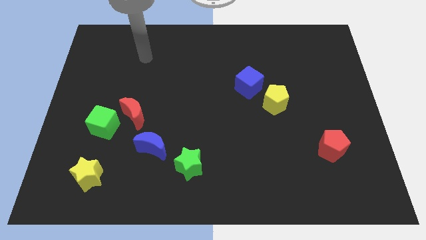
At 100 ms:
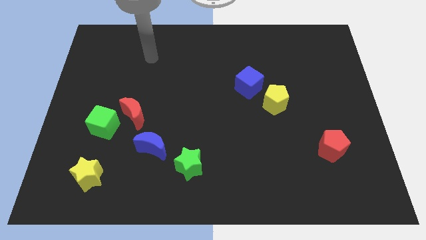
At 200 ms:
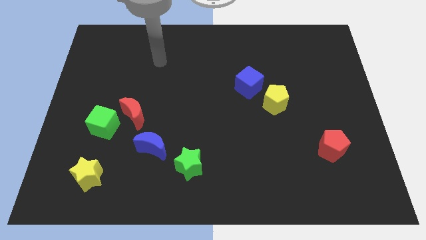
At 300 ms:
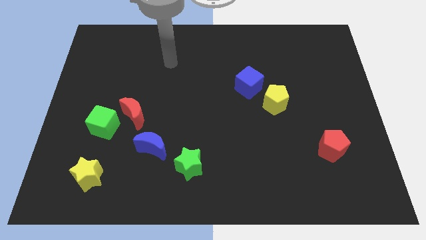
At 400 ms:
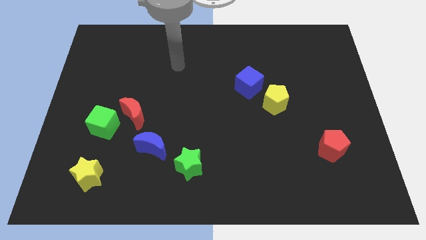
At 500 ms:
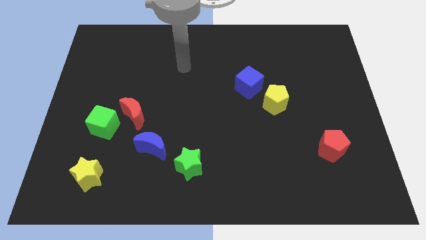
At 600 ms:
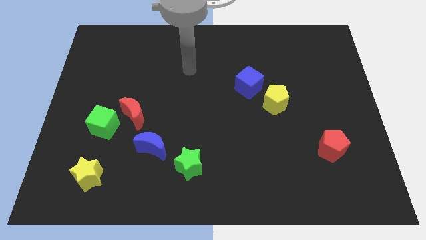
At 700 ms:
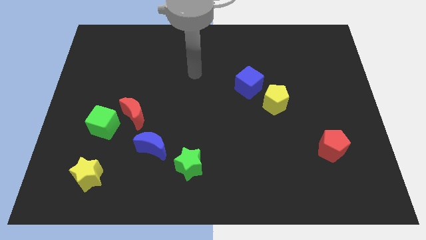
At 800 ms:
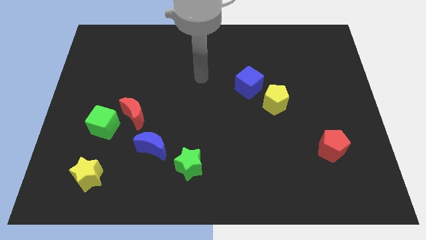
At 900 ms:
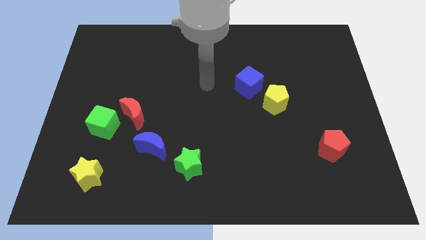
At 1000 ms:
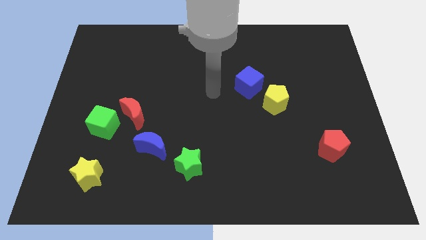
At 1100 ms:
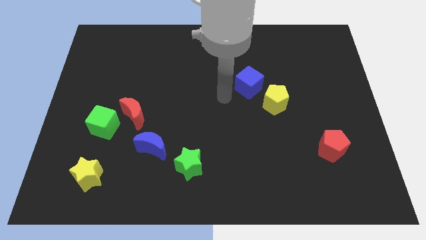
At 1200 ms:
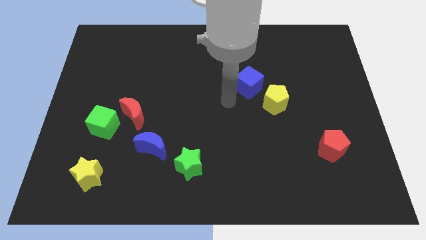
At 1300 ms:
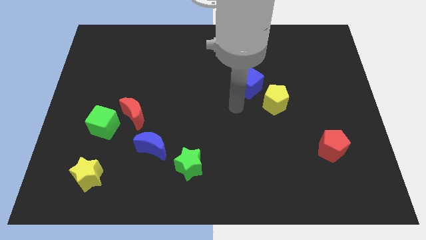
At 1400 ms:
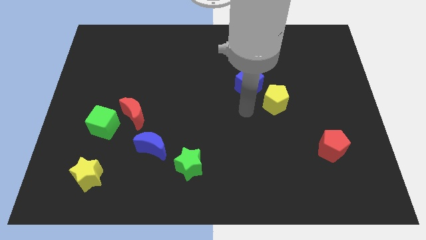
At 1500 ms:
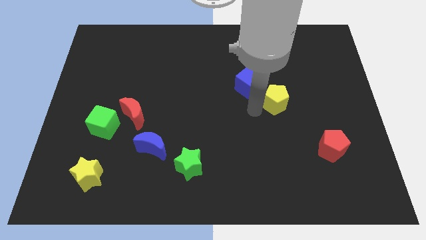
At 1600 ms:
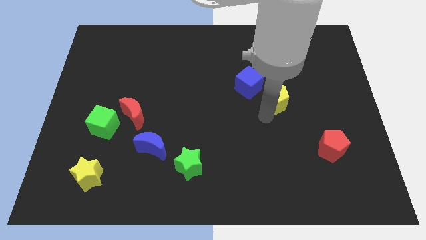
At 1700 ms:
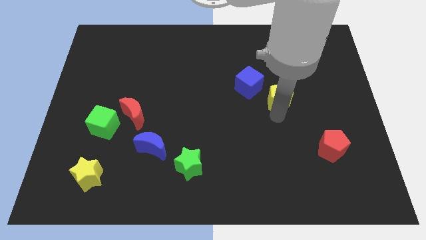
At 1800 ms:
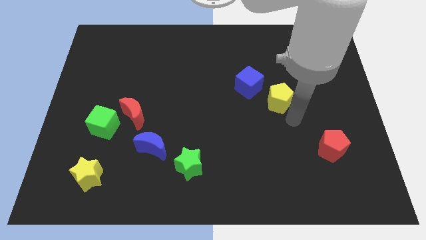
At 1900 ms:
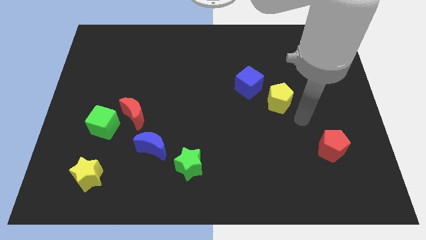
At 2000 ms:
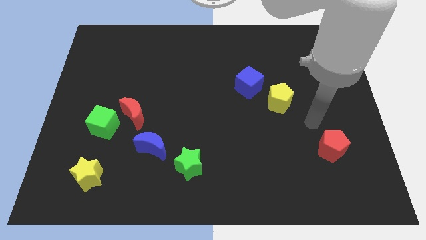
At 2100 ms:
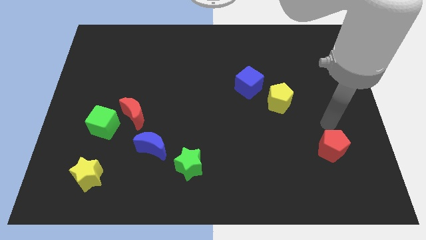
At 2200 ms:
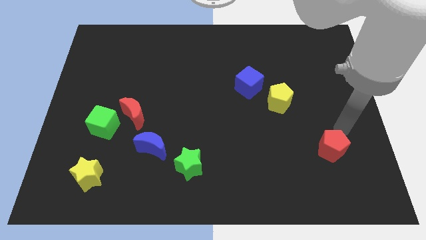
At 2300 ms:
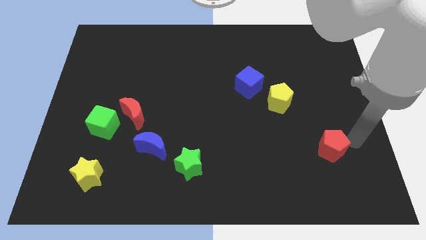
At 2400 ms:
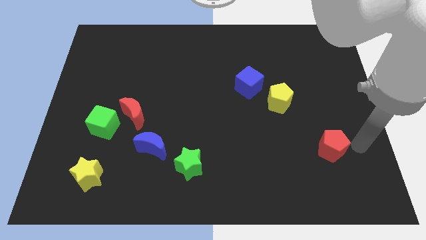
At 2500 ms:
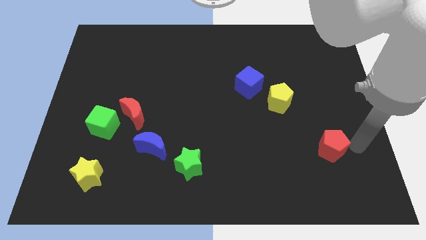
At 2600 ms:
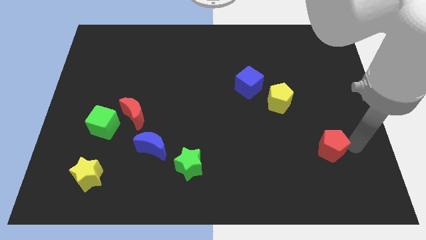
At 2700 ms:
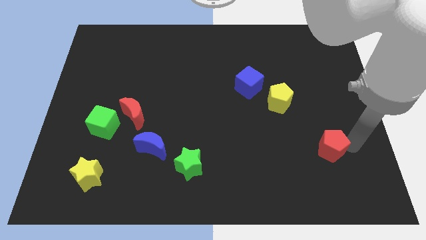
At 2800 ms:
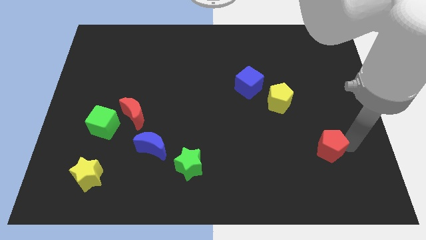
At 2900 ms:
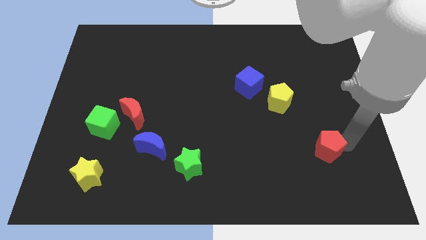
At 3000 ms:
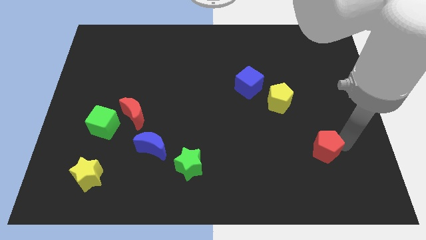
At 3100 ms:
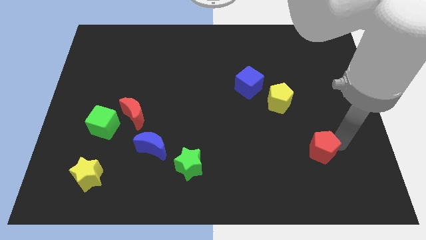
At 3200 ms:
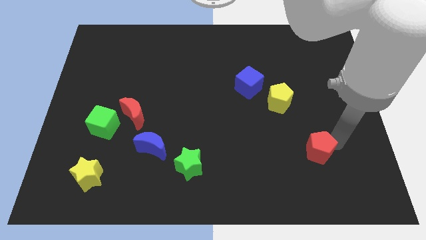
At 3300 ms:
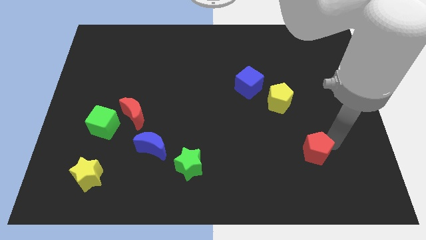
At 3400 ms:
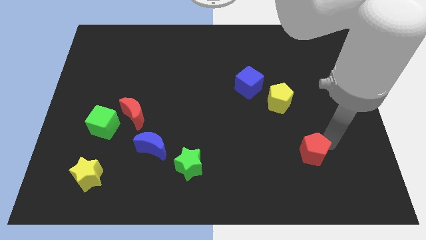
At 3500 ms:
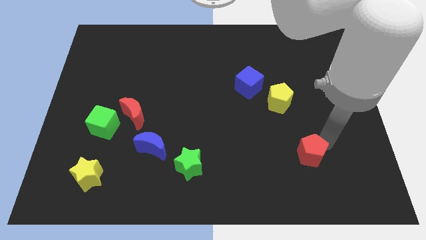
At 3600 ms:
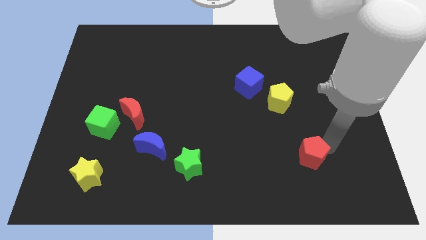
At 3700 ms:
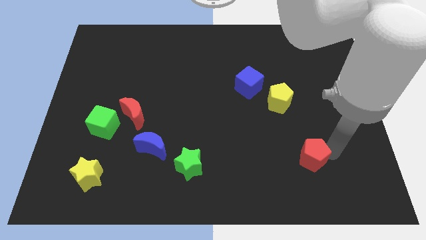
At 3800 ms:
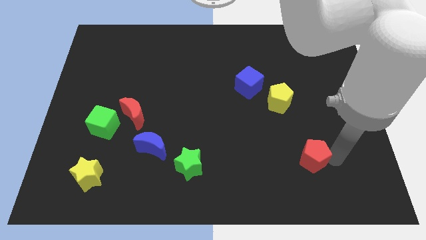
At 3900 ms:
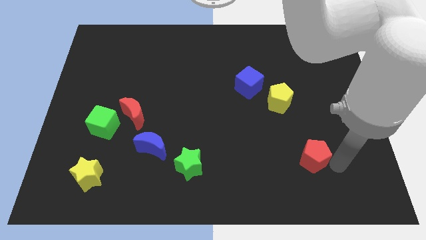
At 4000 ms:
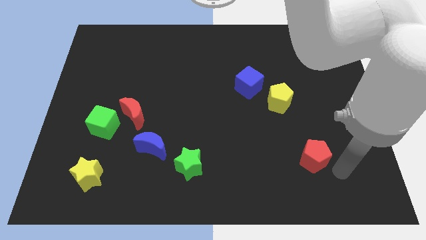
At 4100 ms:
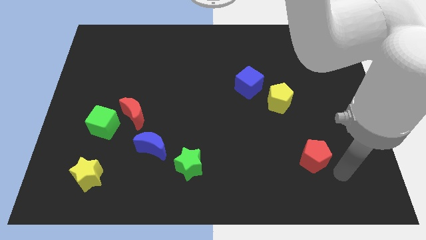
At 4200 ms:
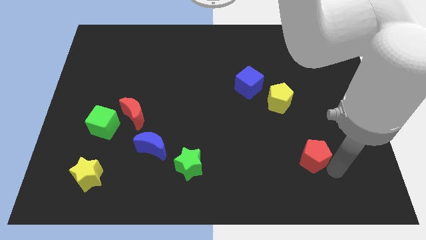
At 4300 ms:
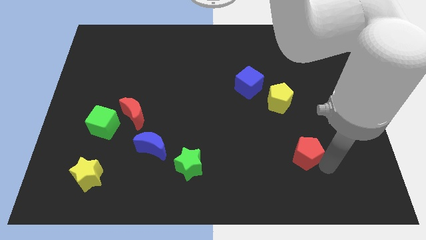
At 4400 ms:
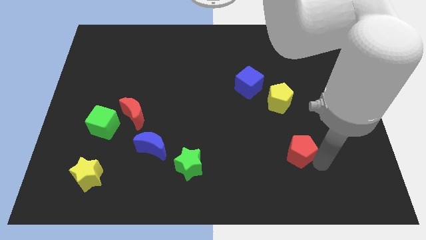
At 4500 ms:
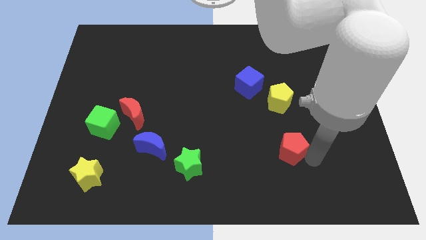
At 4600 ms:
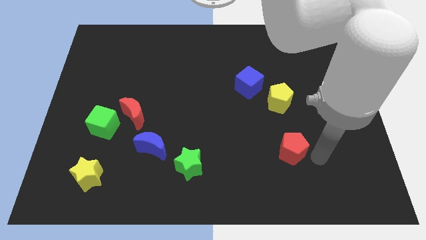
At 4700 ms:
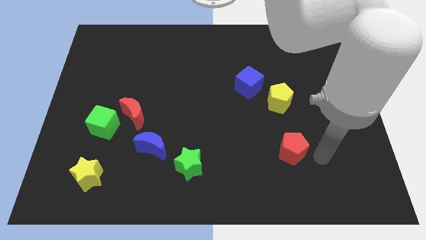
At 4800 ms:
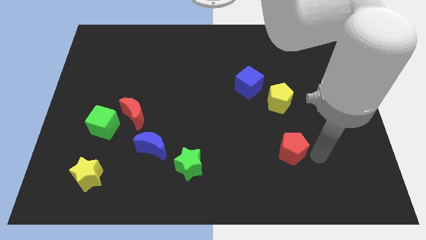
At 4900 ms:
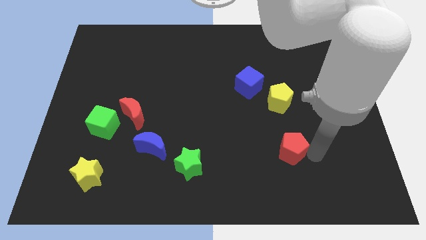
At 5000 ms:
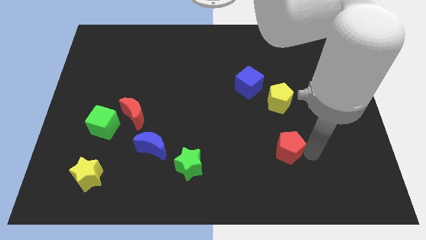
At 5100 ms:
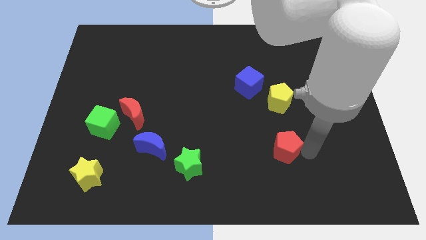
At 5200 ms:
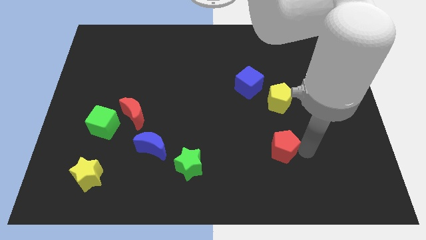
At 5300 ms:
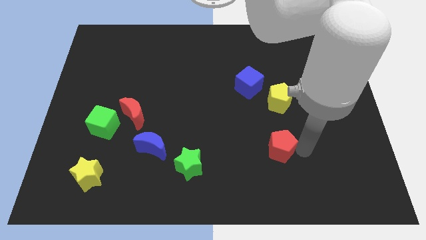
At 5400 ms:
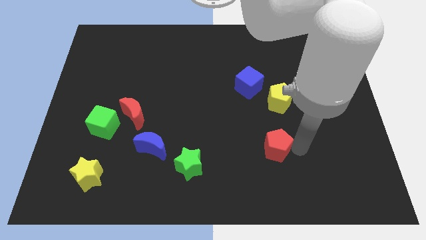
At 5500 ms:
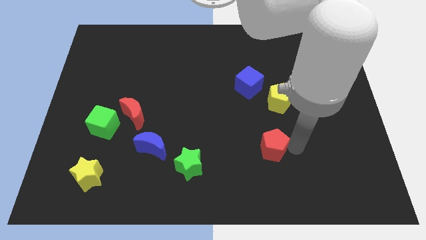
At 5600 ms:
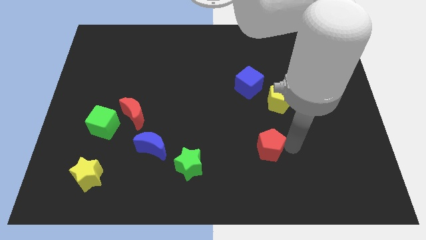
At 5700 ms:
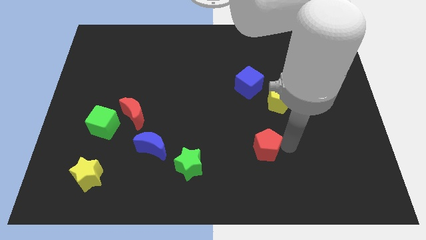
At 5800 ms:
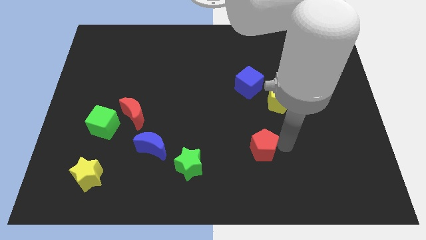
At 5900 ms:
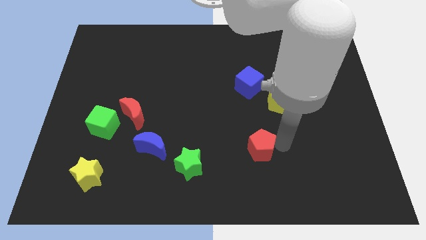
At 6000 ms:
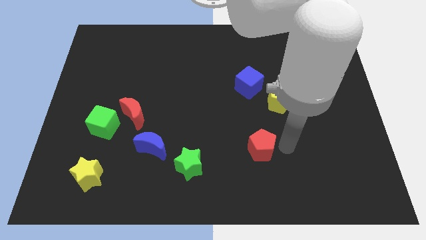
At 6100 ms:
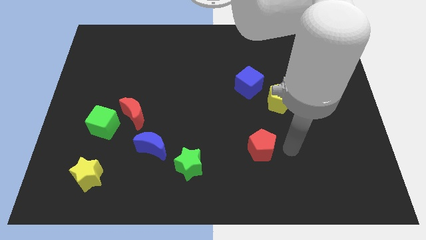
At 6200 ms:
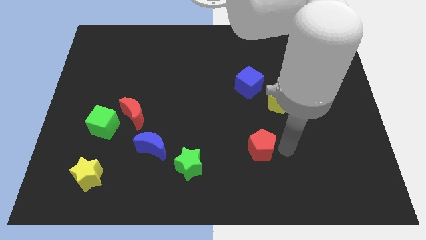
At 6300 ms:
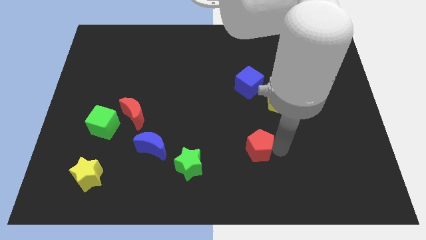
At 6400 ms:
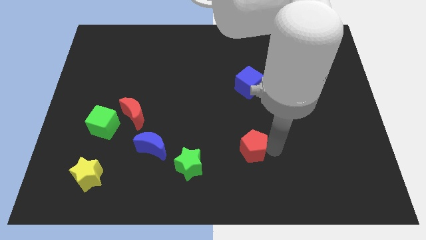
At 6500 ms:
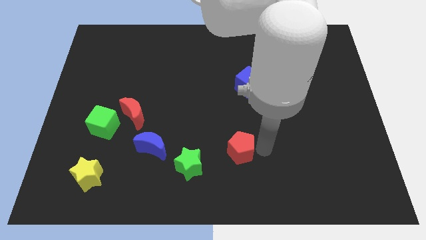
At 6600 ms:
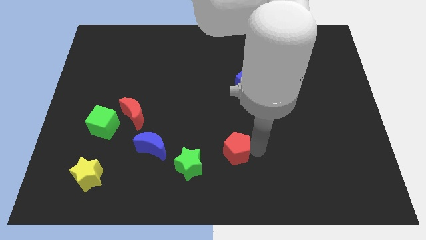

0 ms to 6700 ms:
slide the red pentagon to the left

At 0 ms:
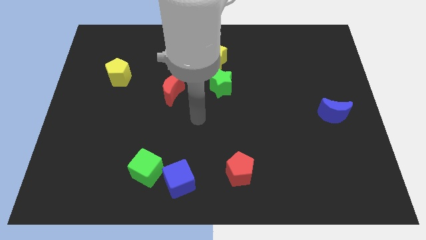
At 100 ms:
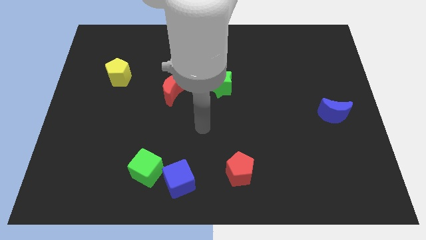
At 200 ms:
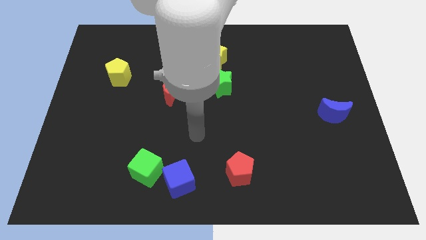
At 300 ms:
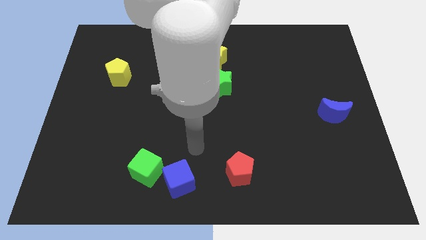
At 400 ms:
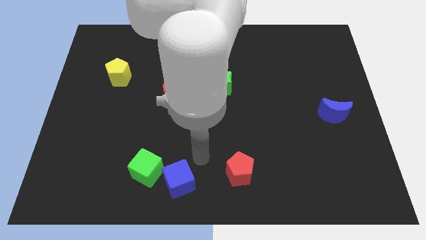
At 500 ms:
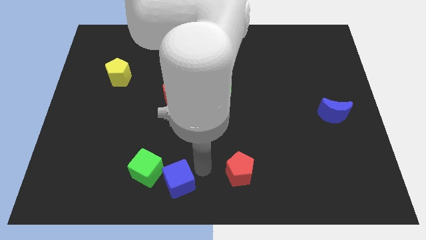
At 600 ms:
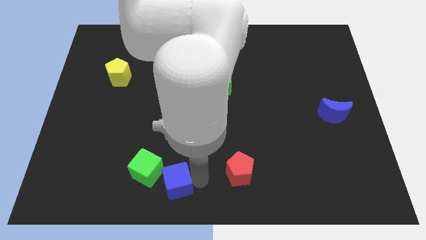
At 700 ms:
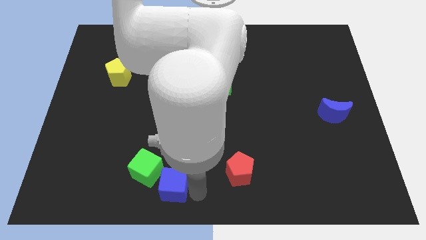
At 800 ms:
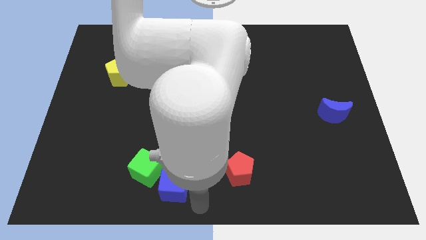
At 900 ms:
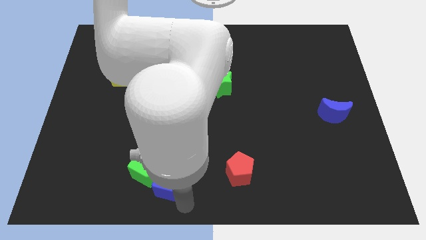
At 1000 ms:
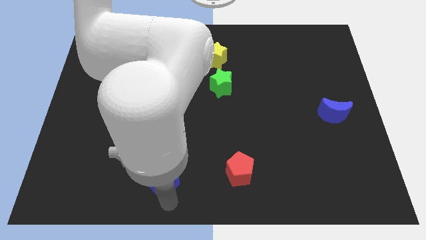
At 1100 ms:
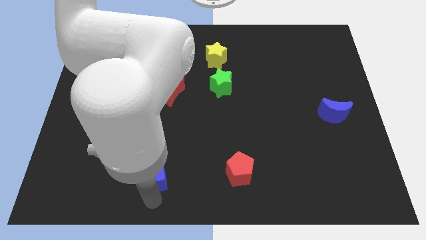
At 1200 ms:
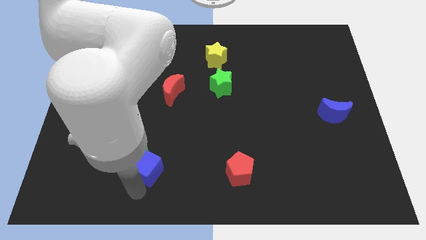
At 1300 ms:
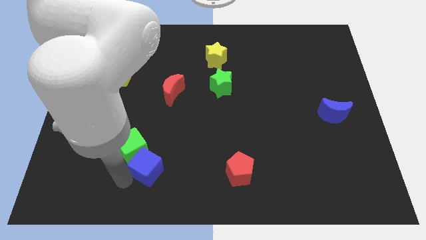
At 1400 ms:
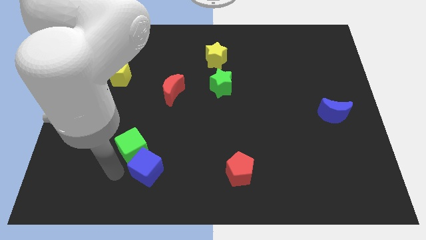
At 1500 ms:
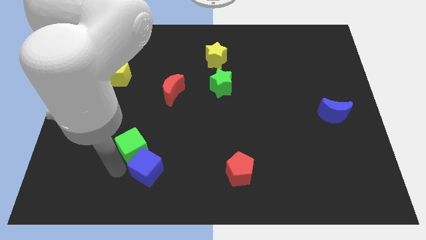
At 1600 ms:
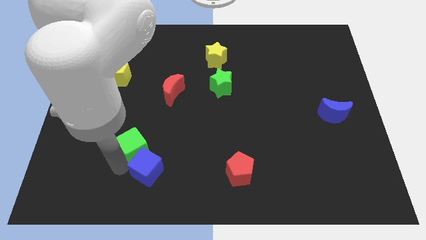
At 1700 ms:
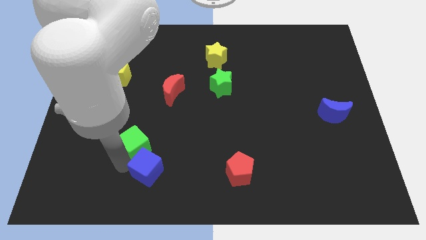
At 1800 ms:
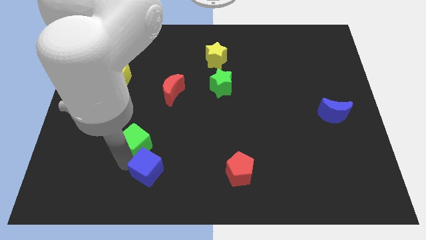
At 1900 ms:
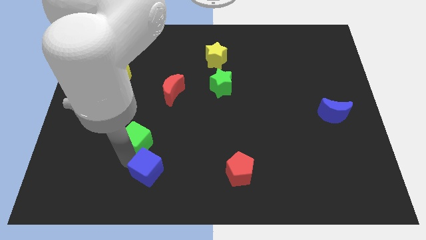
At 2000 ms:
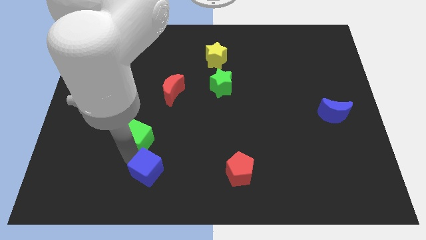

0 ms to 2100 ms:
slide the green cube up a little
